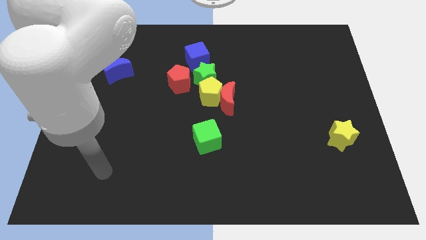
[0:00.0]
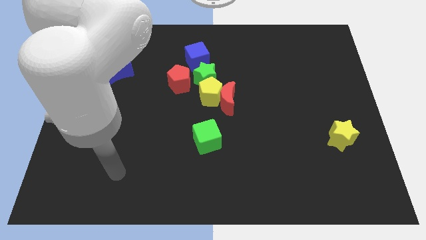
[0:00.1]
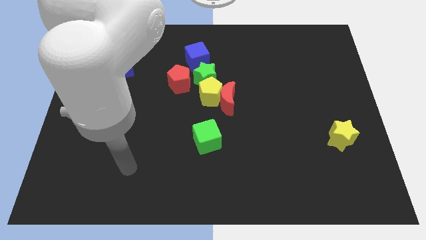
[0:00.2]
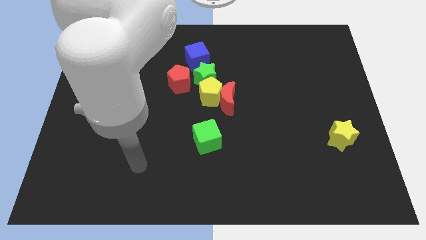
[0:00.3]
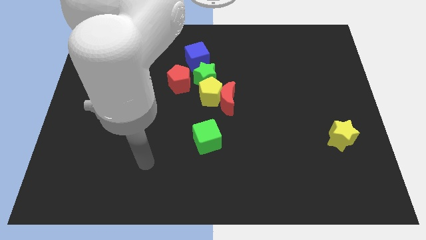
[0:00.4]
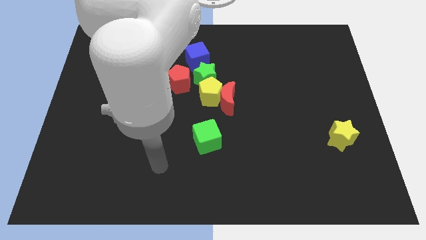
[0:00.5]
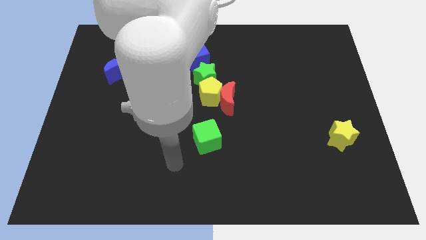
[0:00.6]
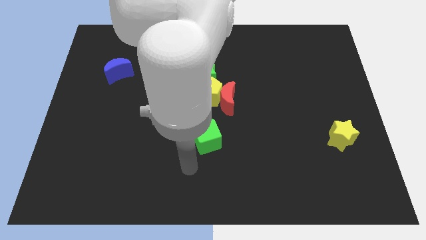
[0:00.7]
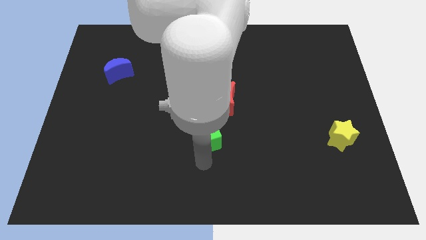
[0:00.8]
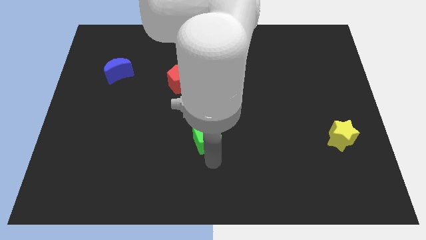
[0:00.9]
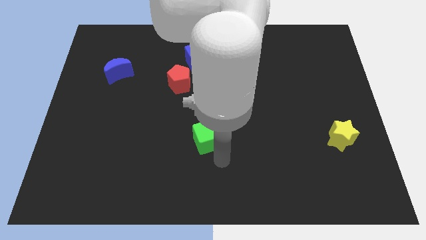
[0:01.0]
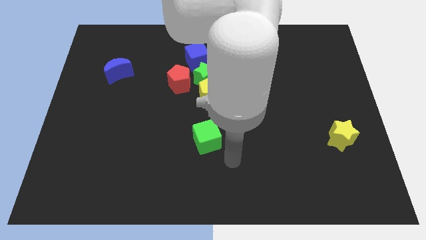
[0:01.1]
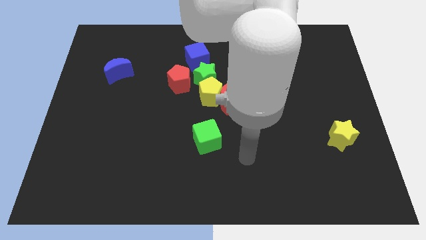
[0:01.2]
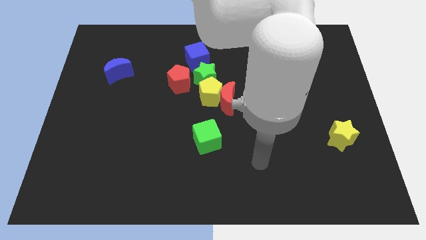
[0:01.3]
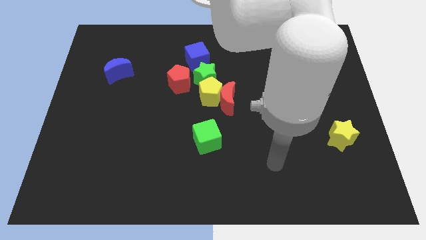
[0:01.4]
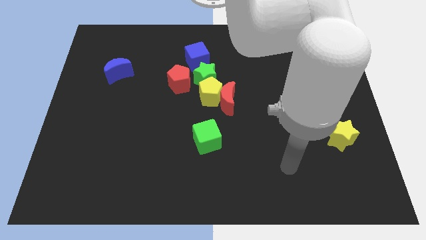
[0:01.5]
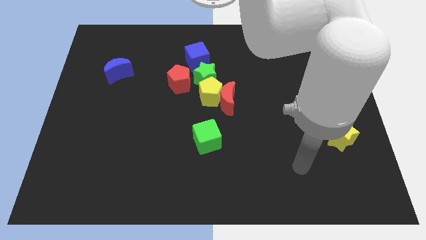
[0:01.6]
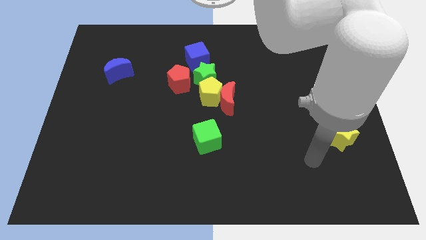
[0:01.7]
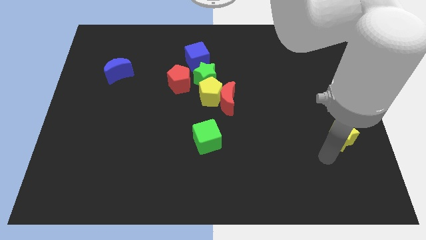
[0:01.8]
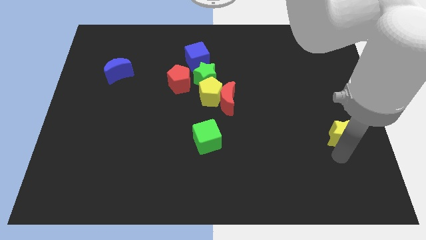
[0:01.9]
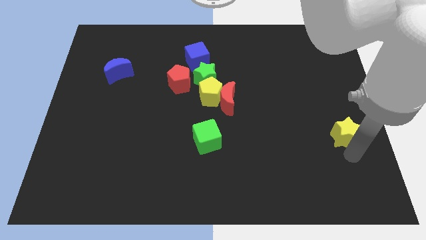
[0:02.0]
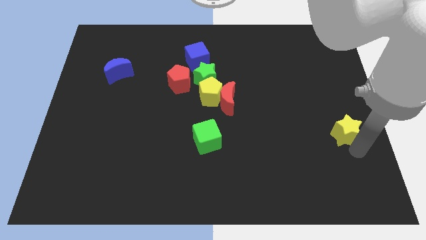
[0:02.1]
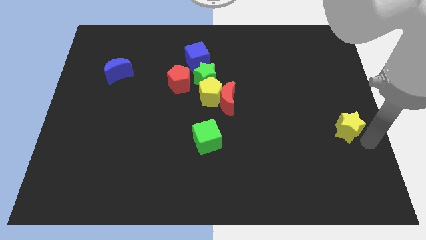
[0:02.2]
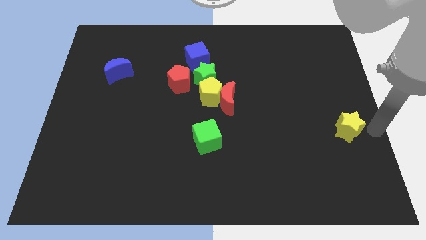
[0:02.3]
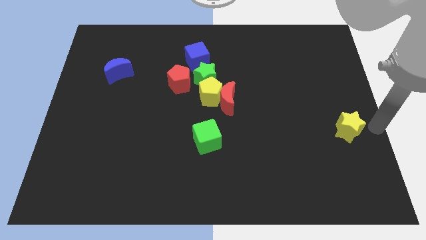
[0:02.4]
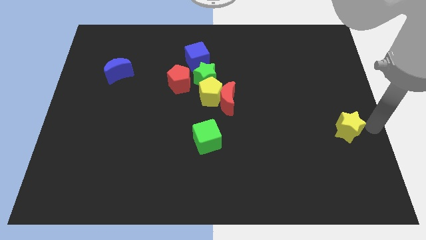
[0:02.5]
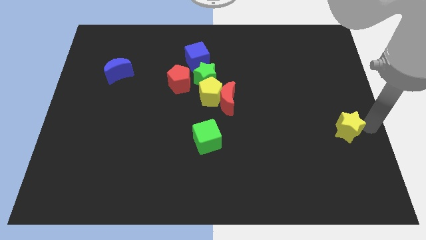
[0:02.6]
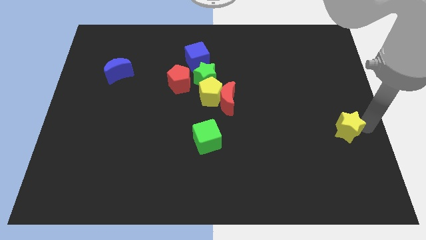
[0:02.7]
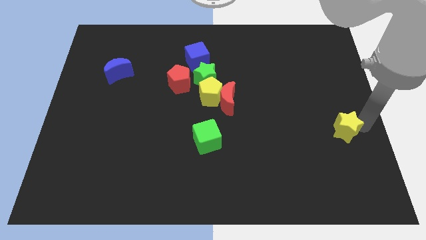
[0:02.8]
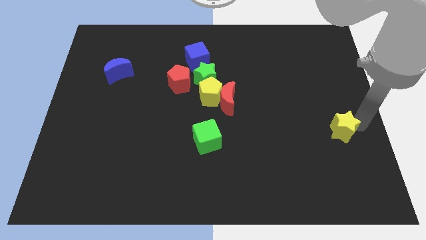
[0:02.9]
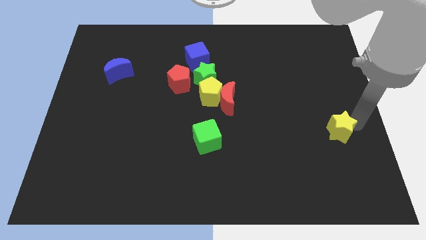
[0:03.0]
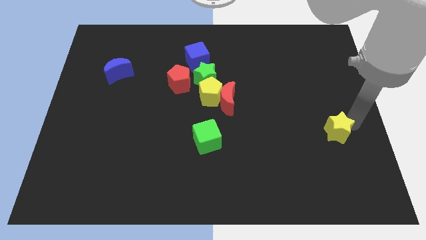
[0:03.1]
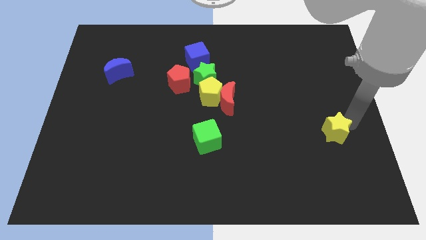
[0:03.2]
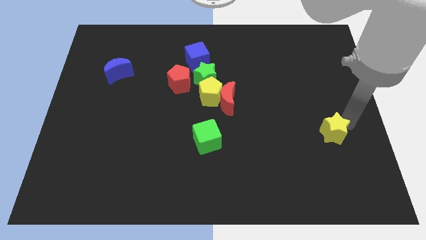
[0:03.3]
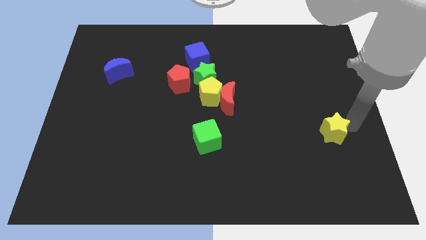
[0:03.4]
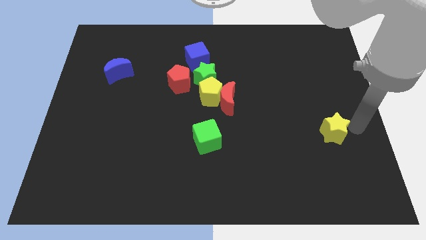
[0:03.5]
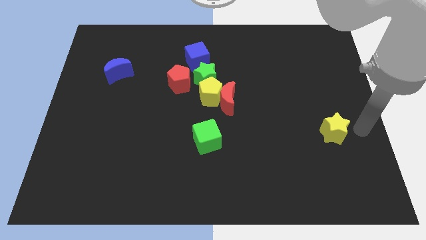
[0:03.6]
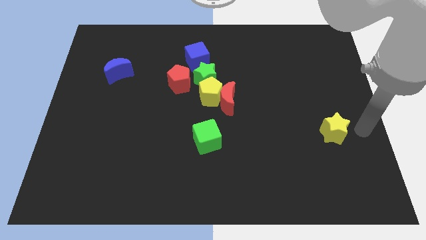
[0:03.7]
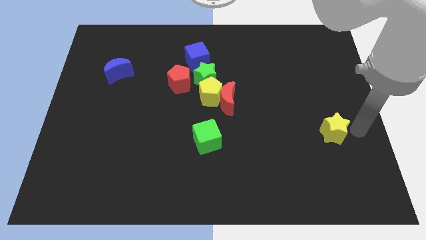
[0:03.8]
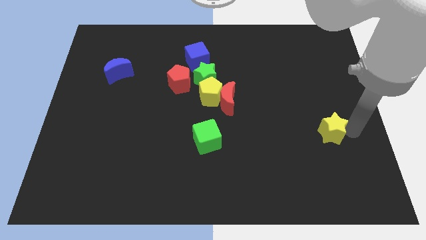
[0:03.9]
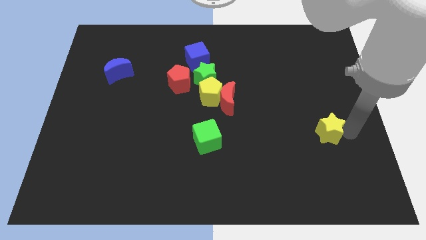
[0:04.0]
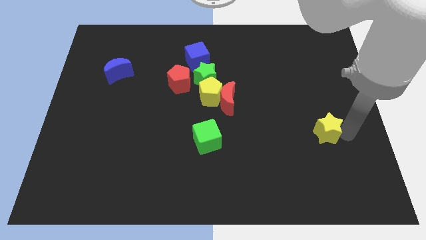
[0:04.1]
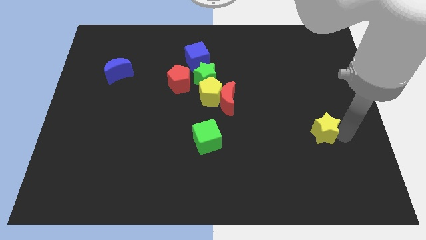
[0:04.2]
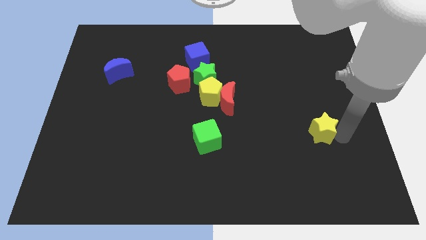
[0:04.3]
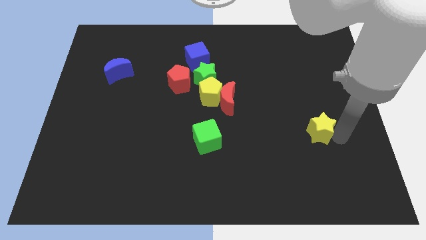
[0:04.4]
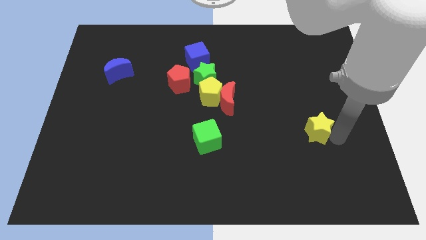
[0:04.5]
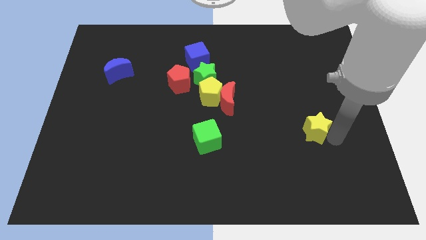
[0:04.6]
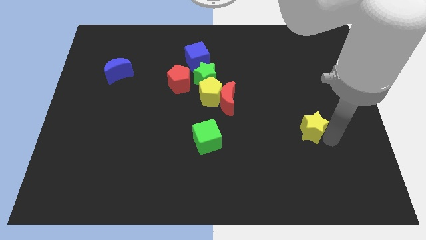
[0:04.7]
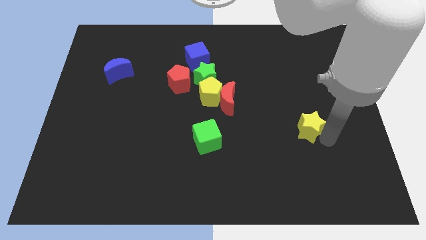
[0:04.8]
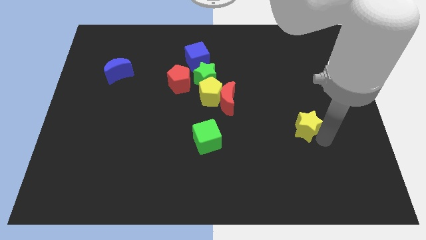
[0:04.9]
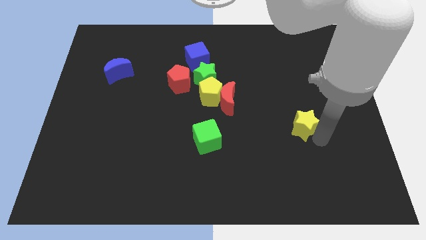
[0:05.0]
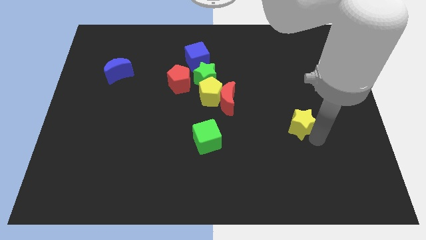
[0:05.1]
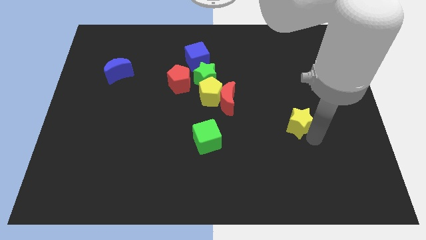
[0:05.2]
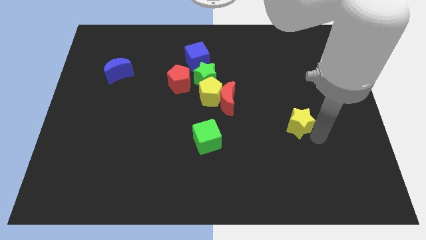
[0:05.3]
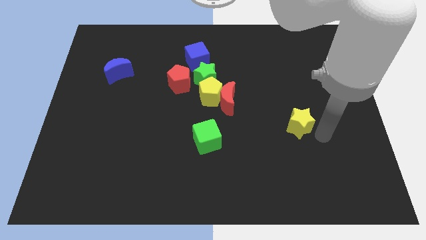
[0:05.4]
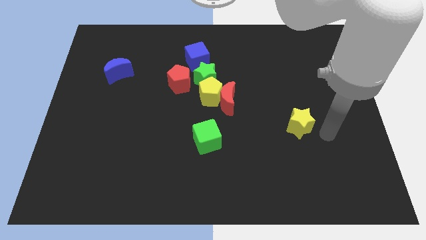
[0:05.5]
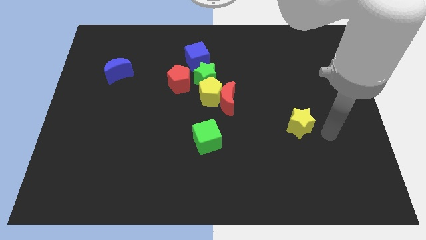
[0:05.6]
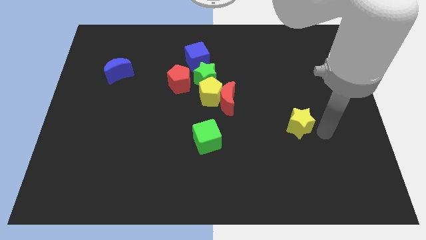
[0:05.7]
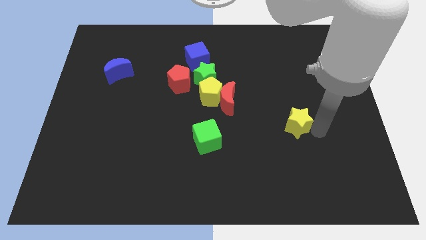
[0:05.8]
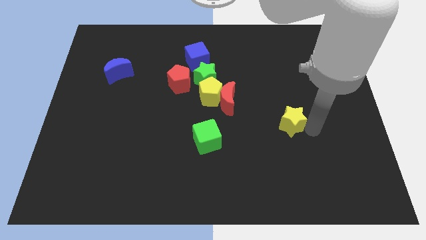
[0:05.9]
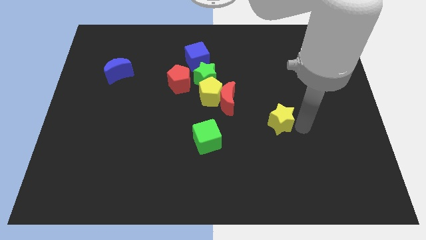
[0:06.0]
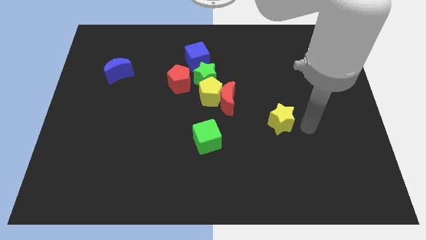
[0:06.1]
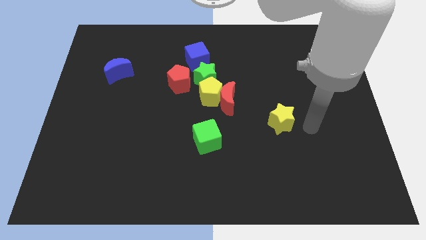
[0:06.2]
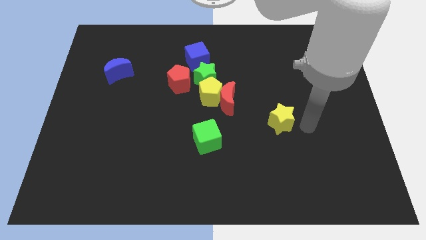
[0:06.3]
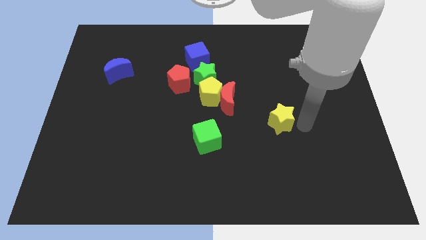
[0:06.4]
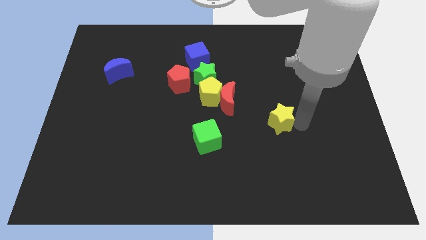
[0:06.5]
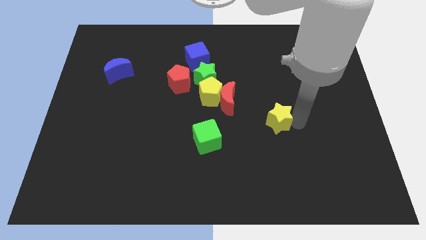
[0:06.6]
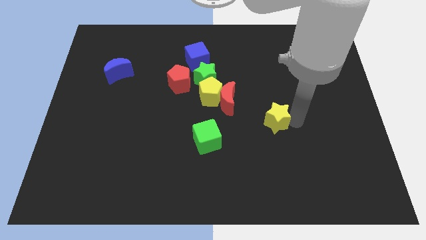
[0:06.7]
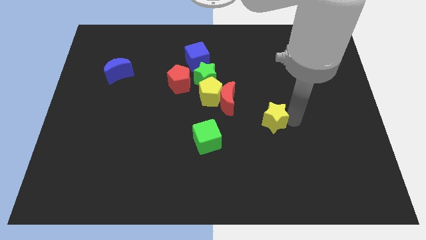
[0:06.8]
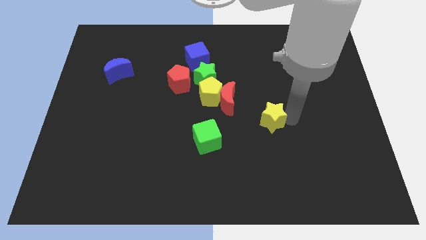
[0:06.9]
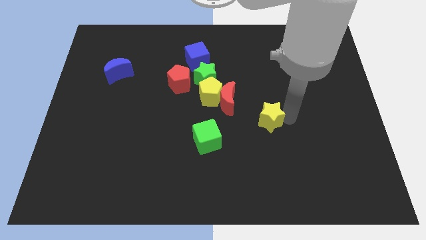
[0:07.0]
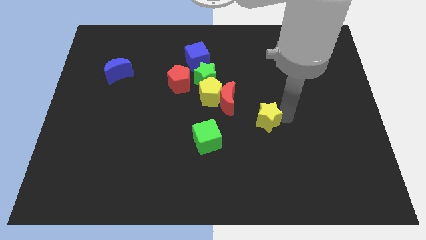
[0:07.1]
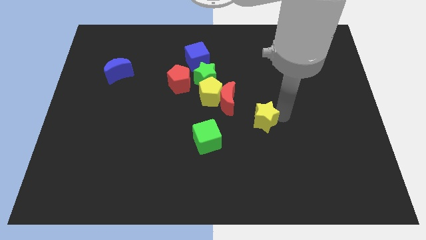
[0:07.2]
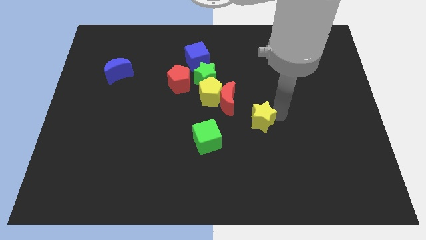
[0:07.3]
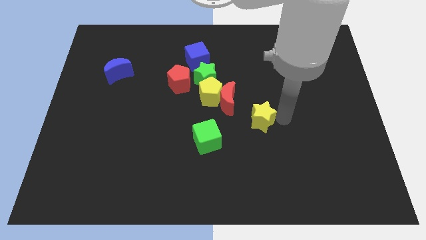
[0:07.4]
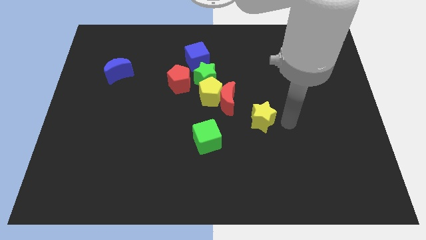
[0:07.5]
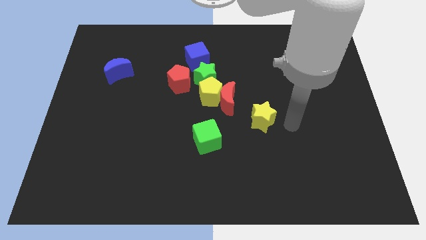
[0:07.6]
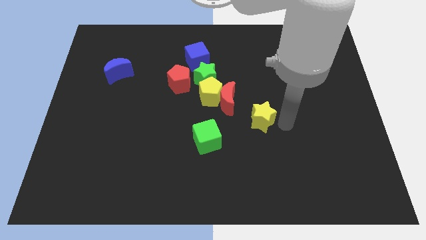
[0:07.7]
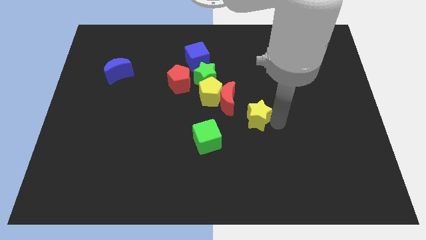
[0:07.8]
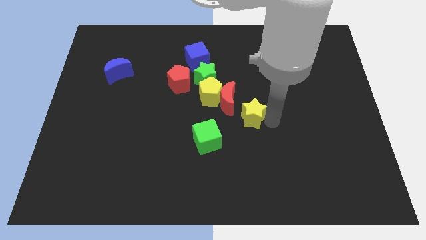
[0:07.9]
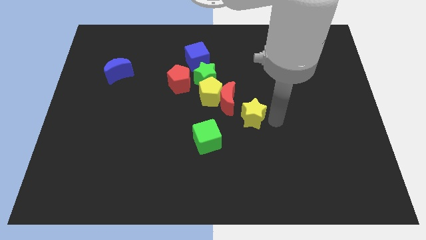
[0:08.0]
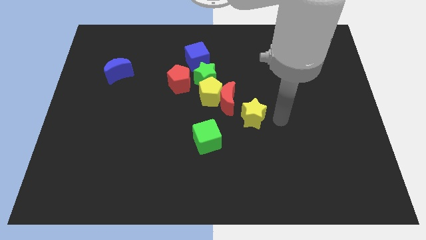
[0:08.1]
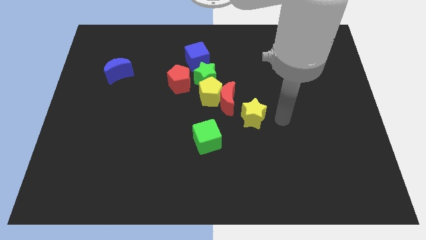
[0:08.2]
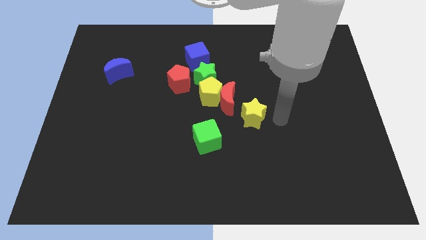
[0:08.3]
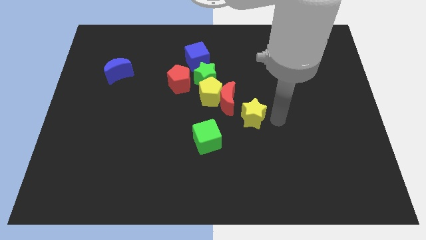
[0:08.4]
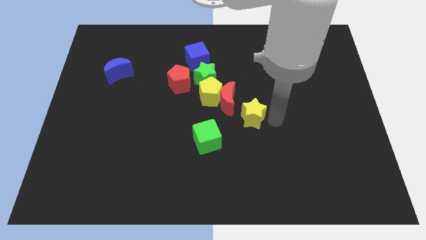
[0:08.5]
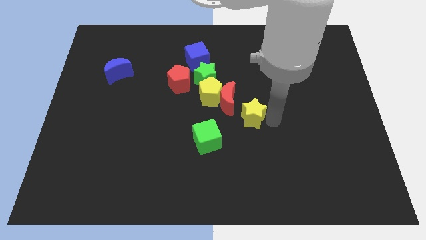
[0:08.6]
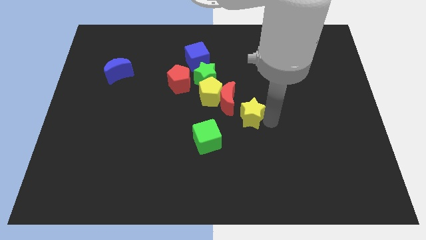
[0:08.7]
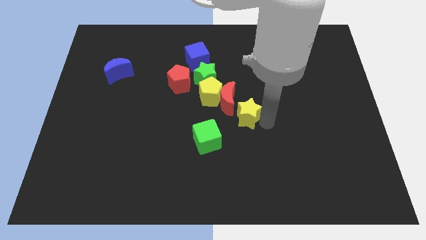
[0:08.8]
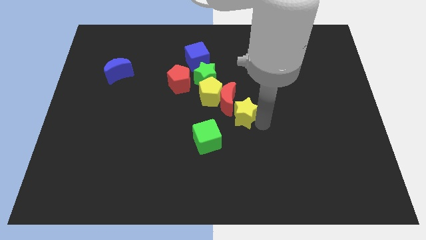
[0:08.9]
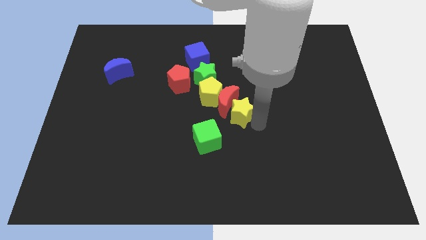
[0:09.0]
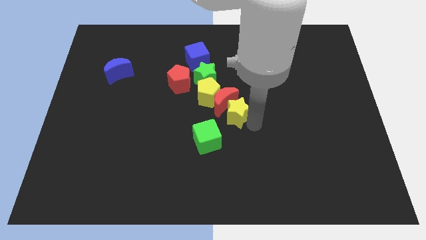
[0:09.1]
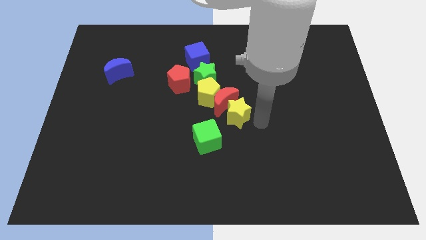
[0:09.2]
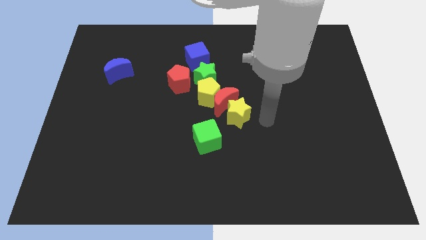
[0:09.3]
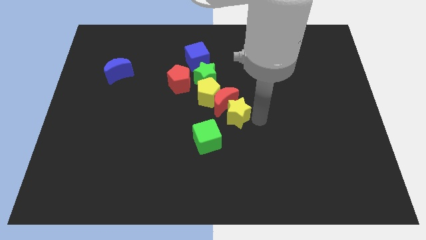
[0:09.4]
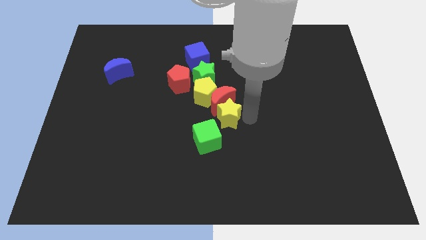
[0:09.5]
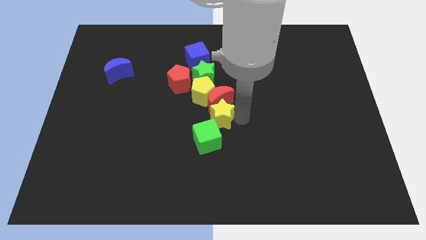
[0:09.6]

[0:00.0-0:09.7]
slide the yellow star to the bottom of the green star
